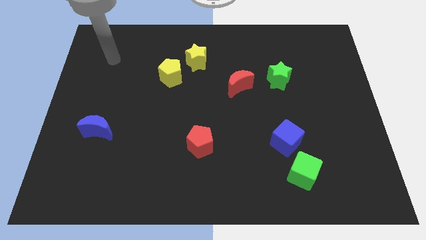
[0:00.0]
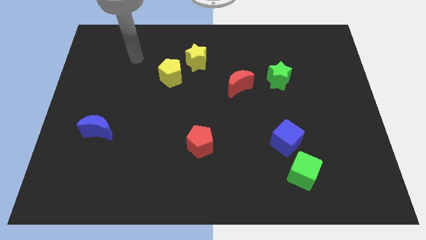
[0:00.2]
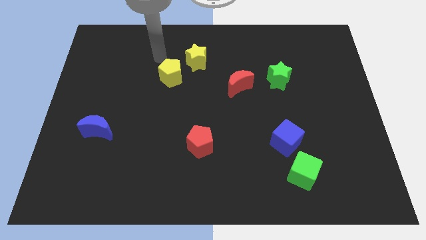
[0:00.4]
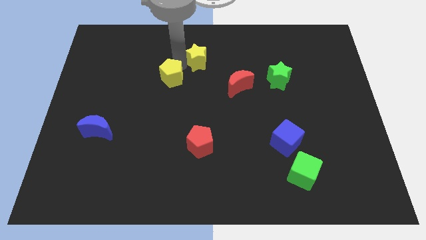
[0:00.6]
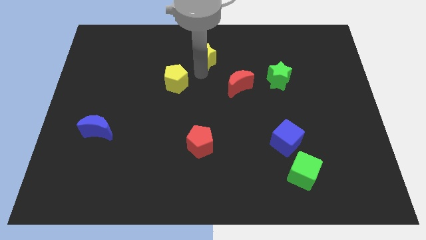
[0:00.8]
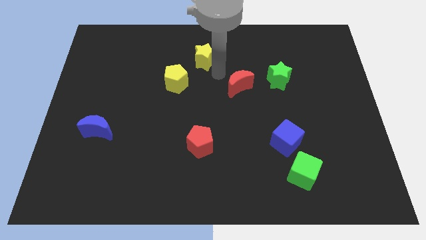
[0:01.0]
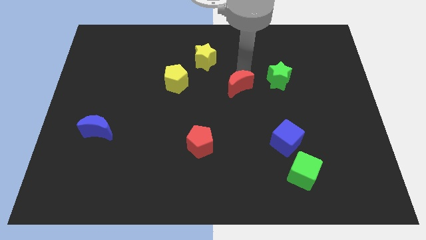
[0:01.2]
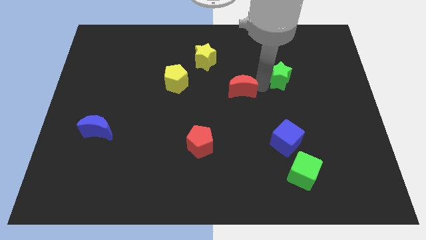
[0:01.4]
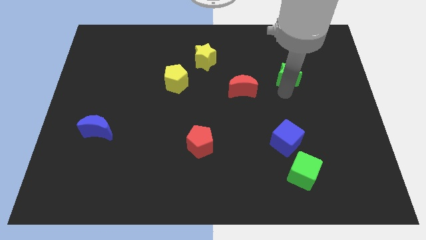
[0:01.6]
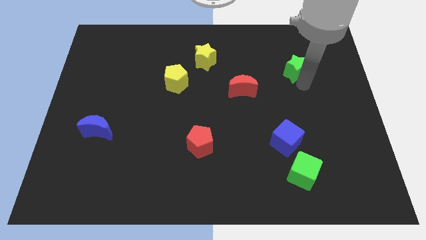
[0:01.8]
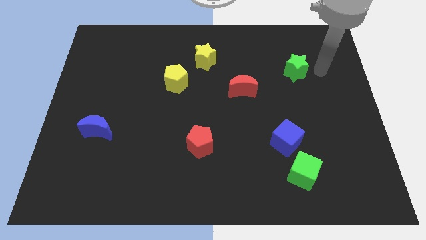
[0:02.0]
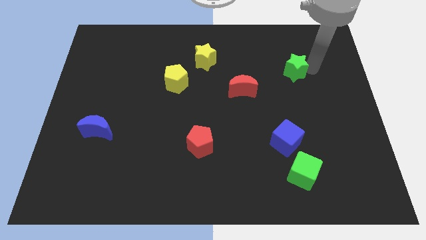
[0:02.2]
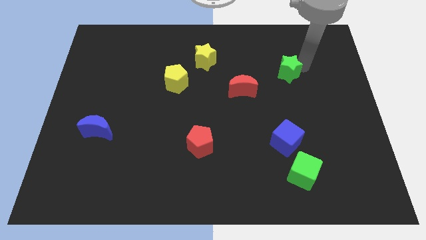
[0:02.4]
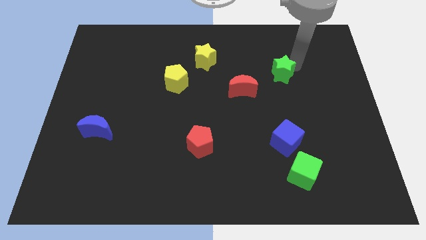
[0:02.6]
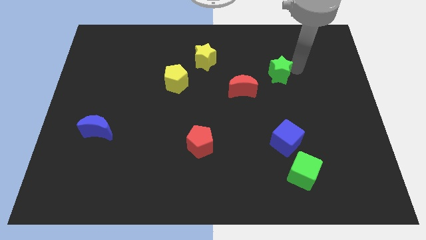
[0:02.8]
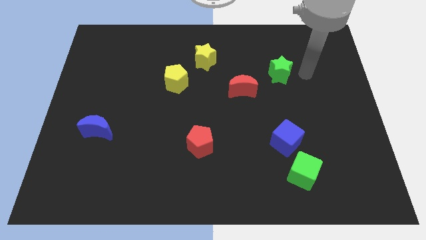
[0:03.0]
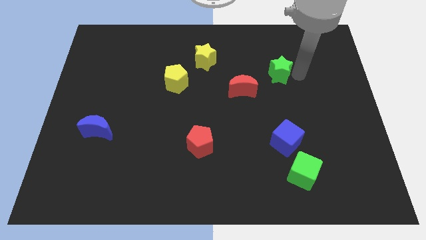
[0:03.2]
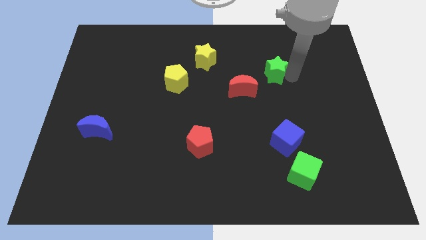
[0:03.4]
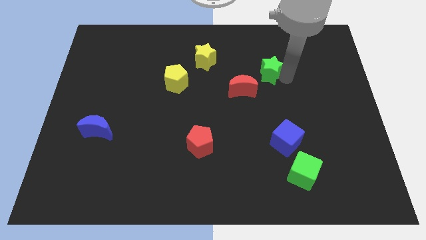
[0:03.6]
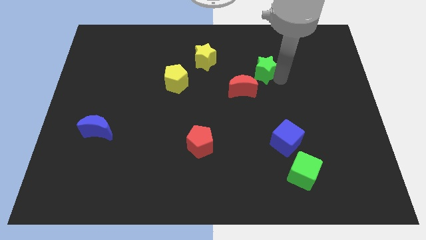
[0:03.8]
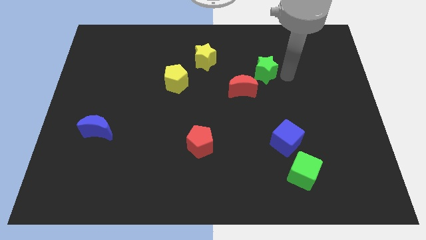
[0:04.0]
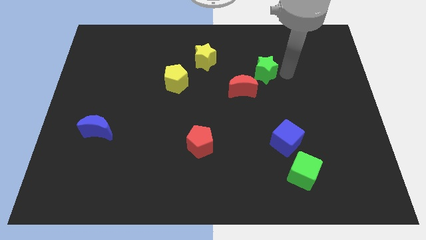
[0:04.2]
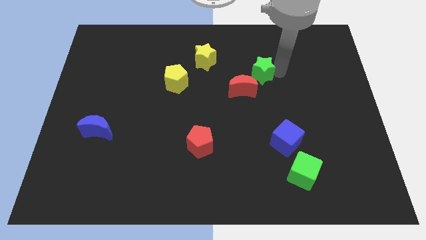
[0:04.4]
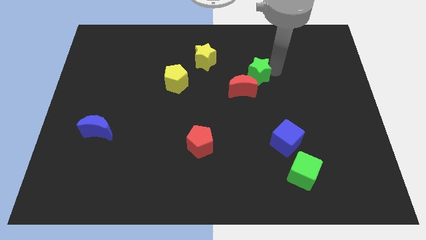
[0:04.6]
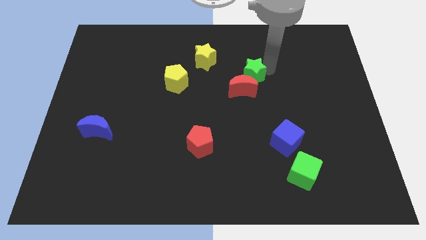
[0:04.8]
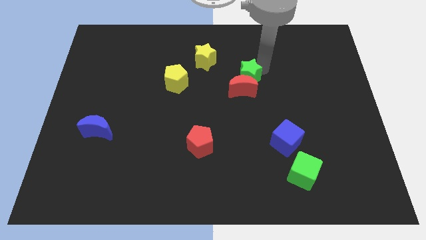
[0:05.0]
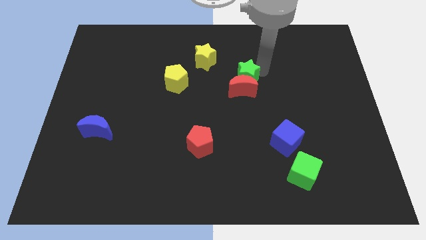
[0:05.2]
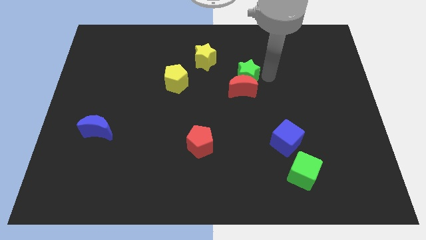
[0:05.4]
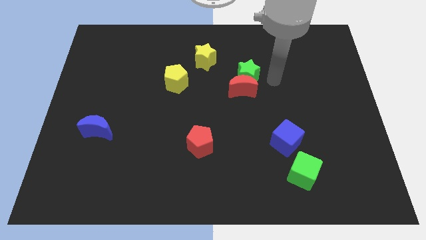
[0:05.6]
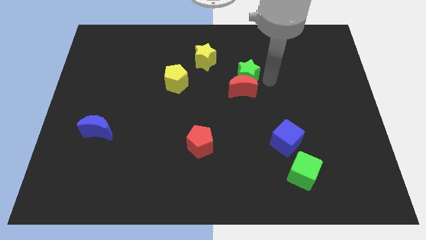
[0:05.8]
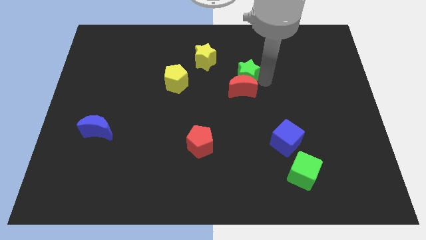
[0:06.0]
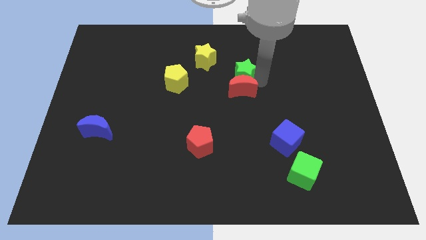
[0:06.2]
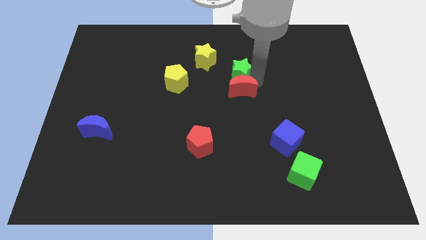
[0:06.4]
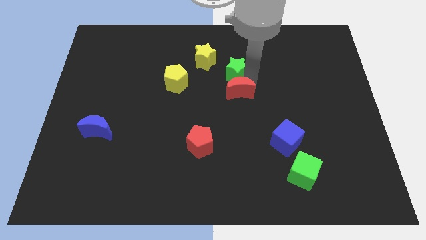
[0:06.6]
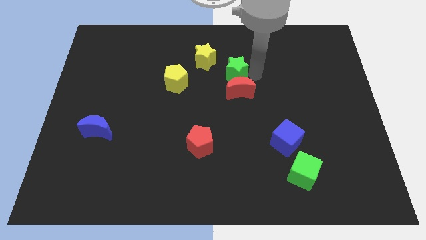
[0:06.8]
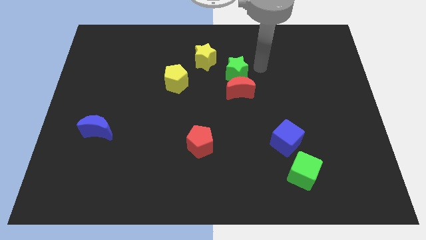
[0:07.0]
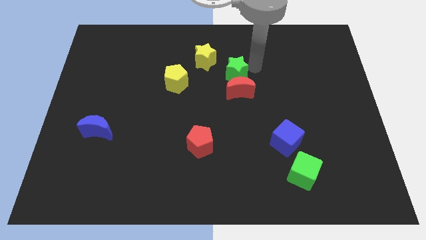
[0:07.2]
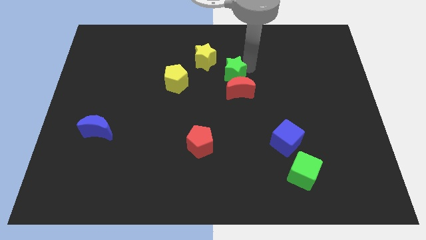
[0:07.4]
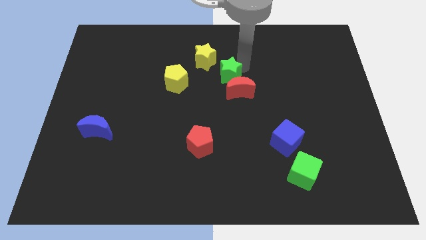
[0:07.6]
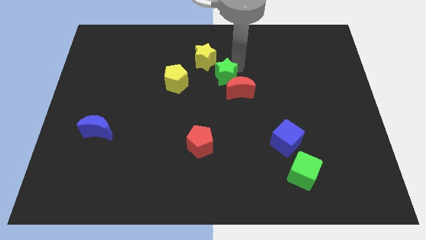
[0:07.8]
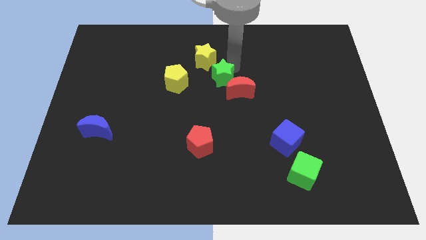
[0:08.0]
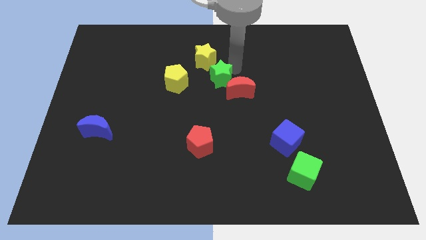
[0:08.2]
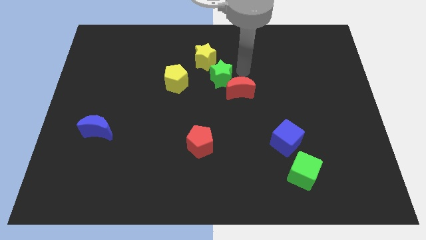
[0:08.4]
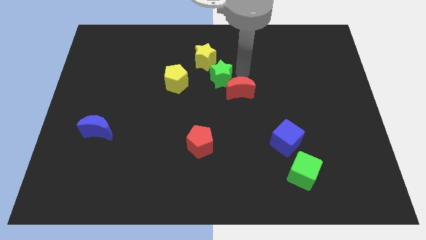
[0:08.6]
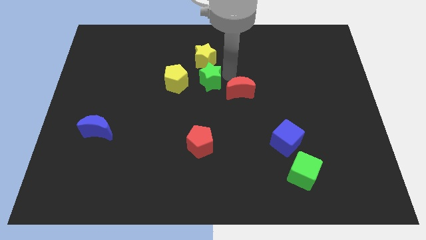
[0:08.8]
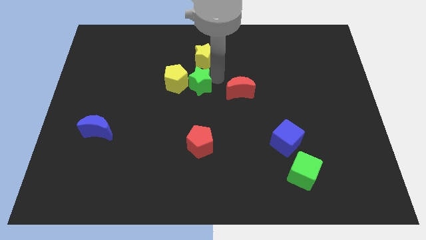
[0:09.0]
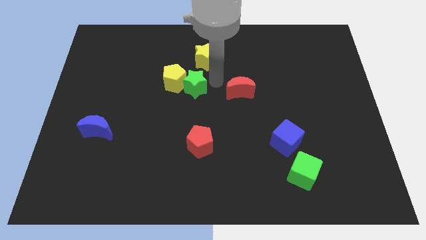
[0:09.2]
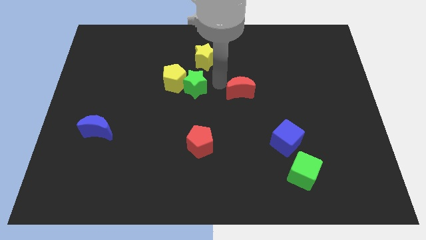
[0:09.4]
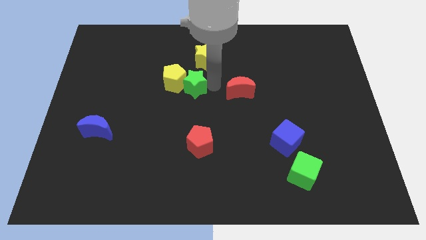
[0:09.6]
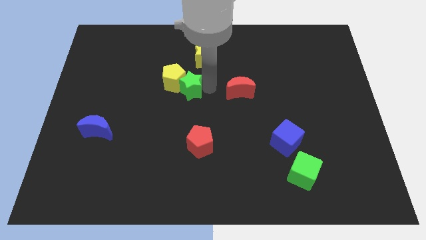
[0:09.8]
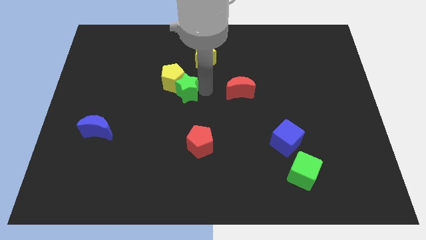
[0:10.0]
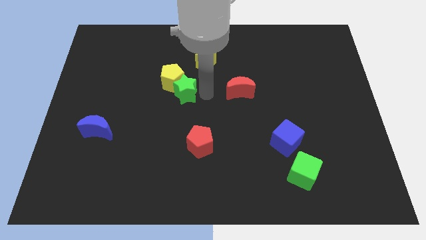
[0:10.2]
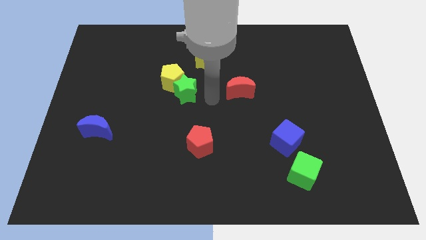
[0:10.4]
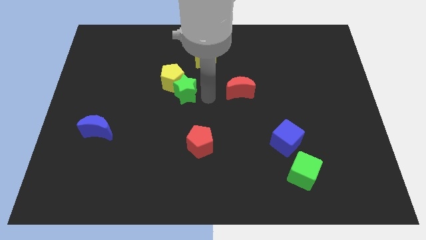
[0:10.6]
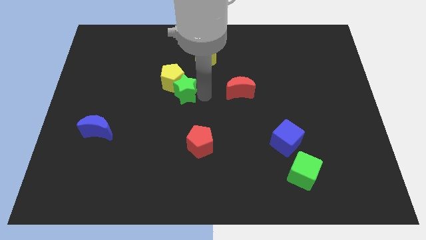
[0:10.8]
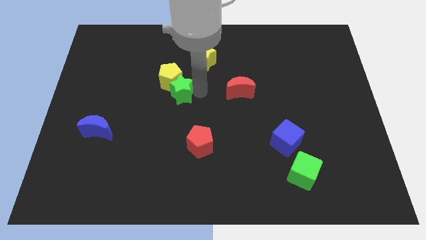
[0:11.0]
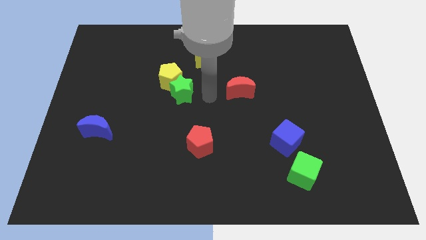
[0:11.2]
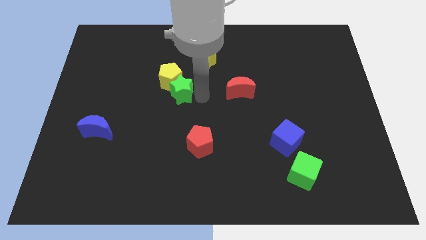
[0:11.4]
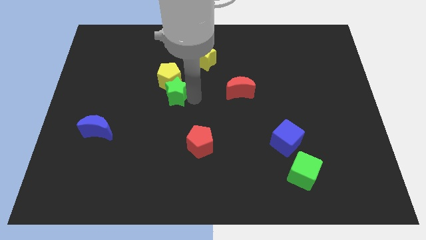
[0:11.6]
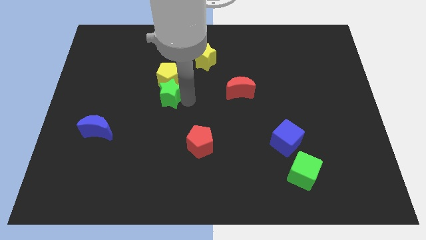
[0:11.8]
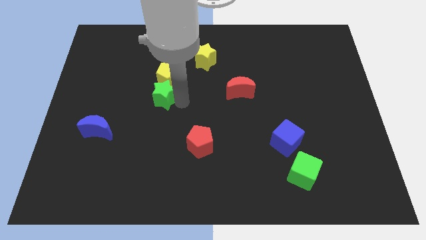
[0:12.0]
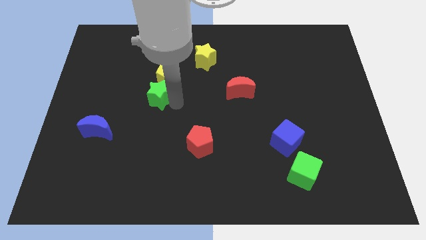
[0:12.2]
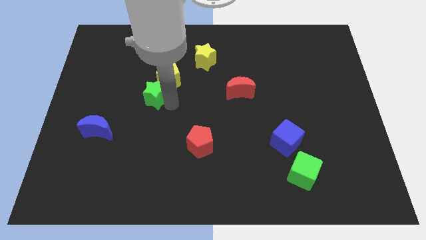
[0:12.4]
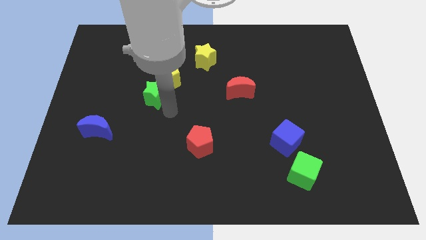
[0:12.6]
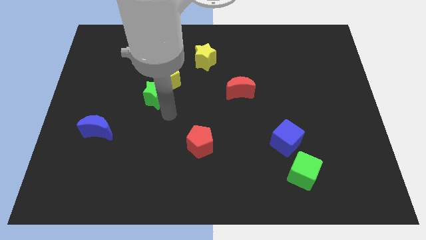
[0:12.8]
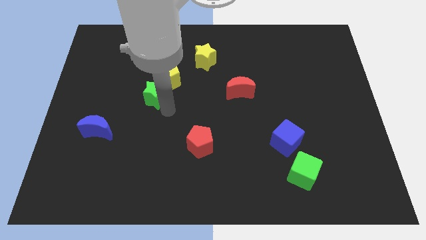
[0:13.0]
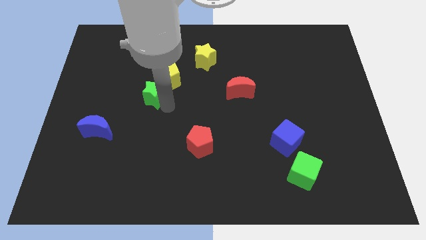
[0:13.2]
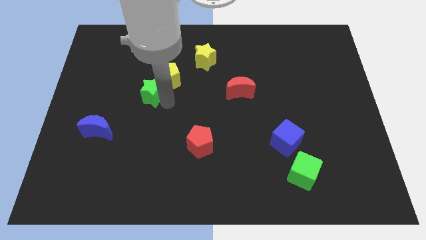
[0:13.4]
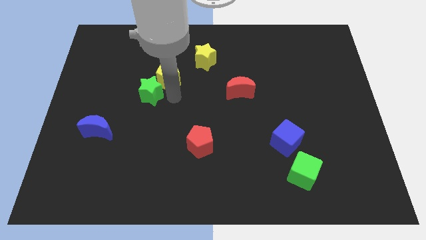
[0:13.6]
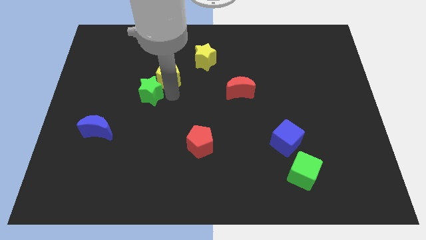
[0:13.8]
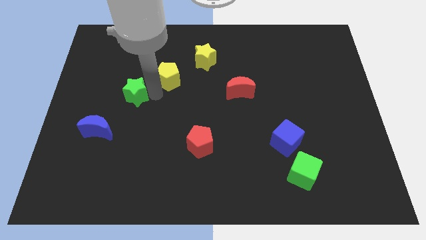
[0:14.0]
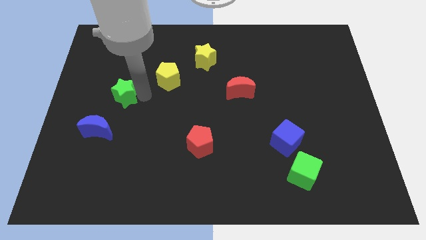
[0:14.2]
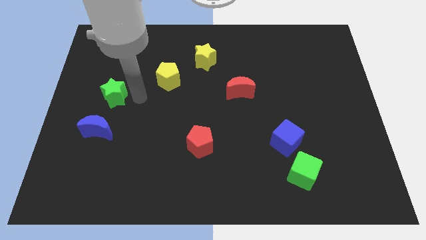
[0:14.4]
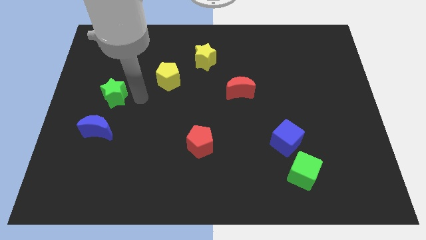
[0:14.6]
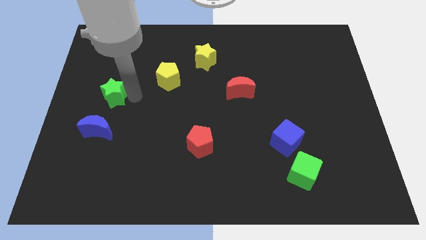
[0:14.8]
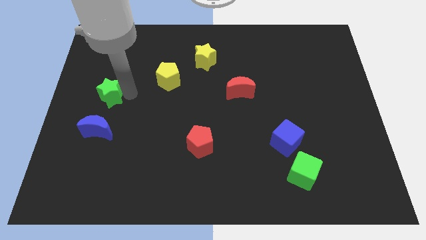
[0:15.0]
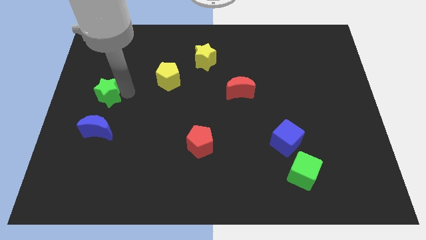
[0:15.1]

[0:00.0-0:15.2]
push the green star to the left side of the board
